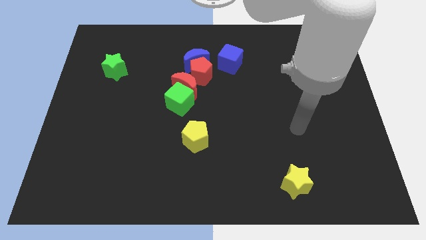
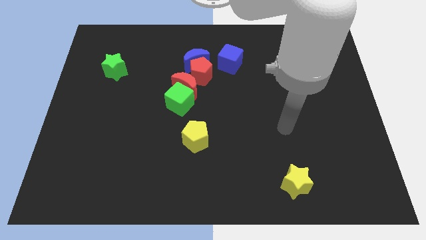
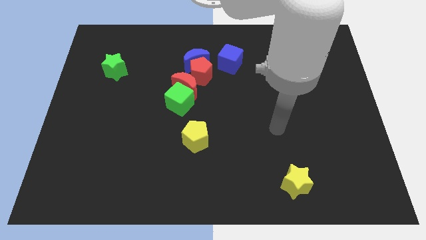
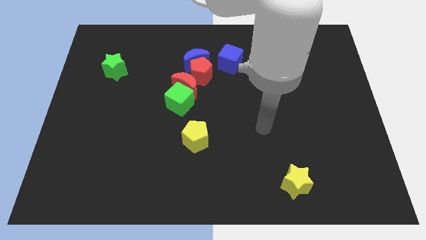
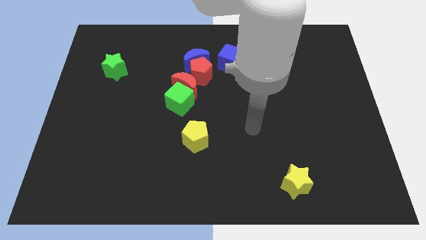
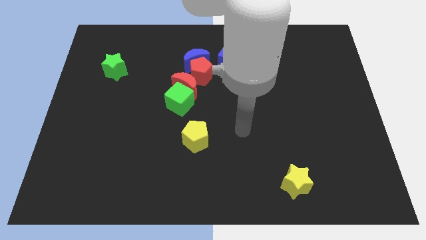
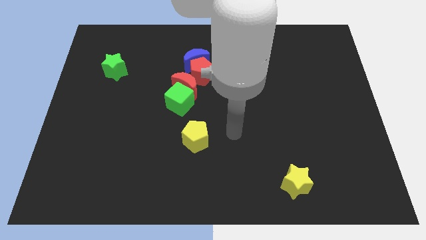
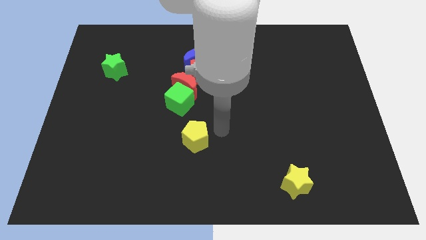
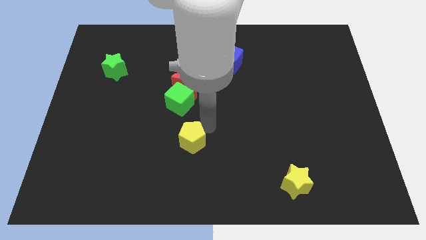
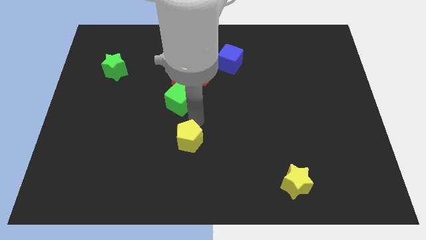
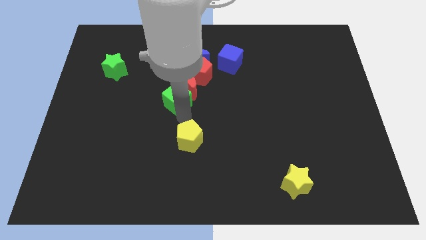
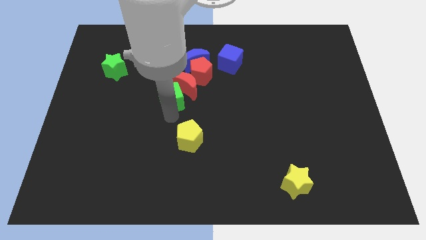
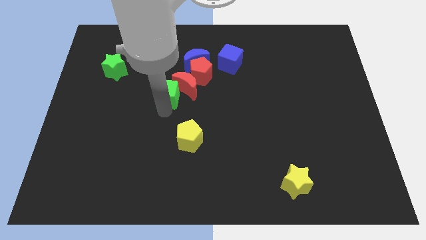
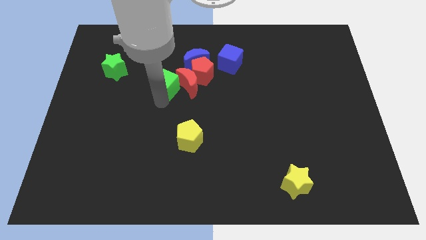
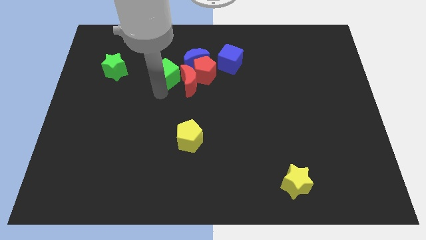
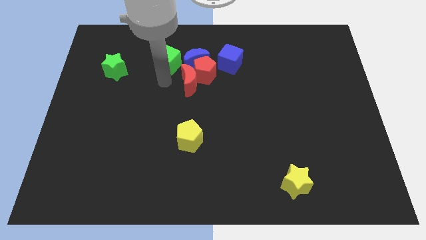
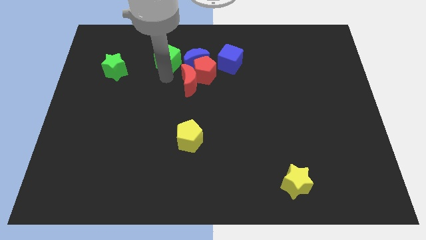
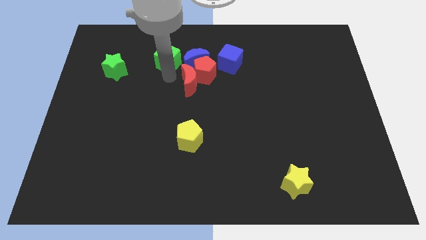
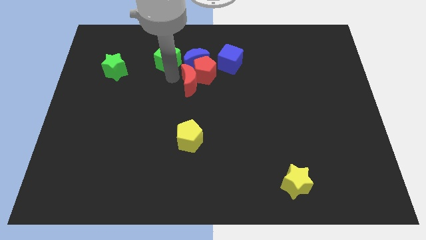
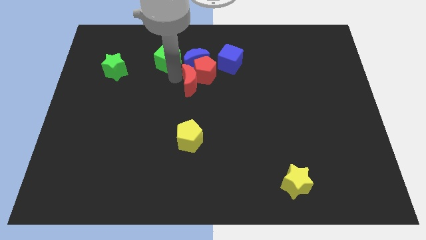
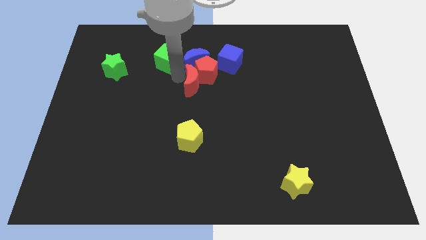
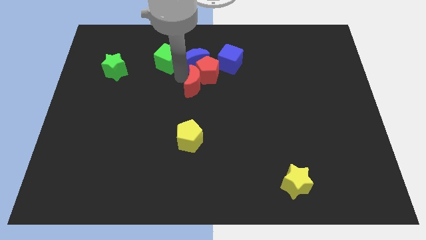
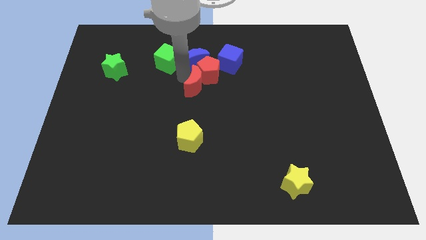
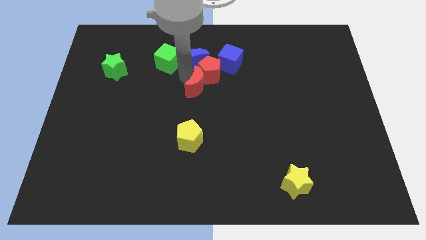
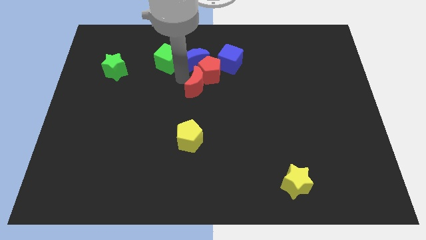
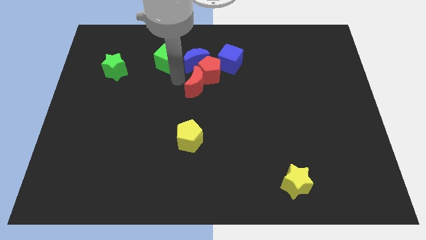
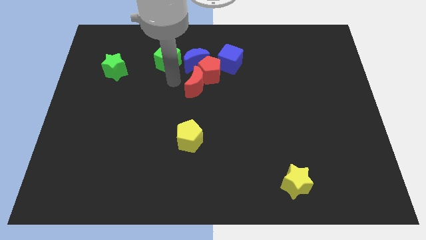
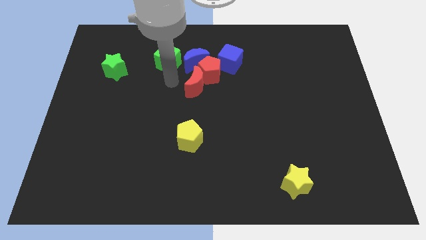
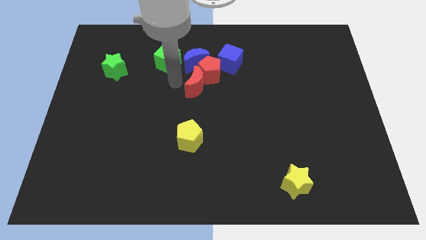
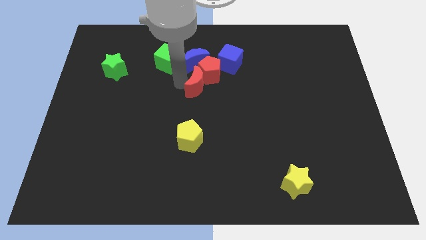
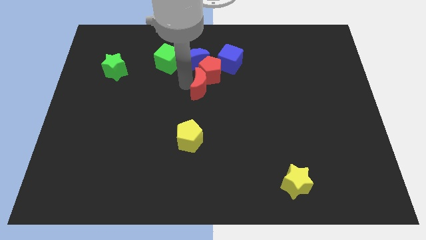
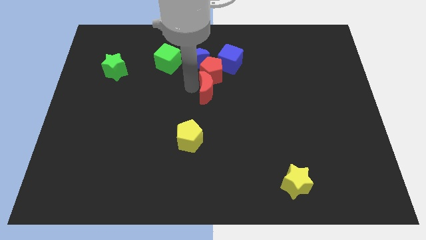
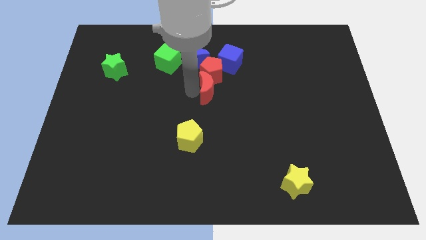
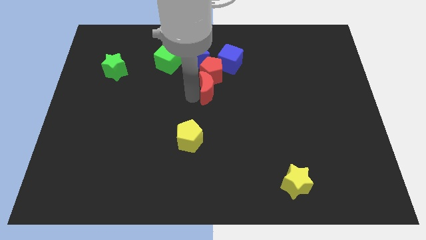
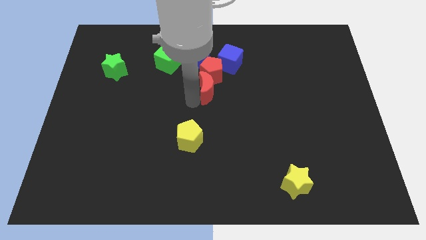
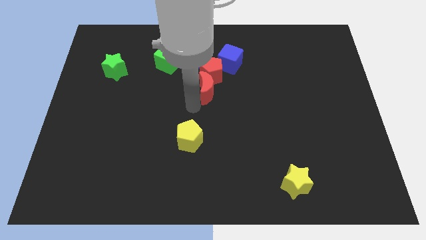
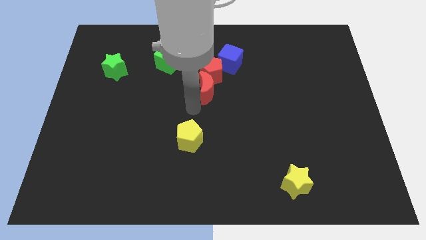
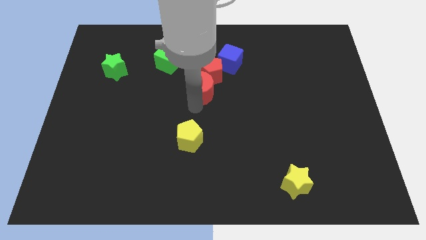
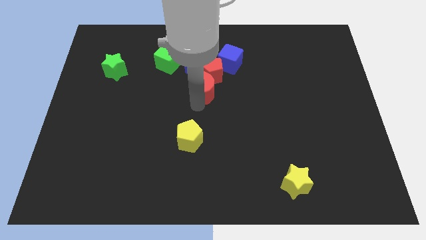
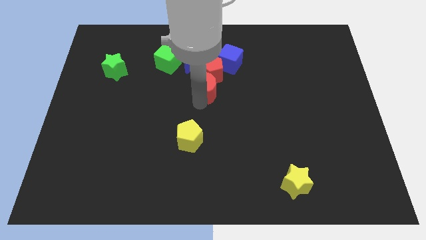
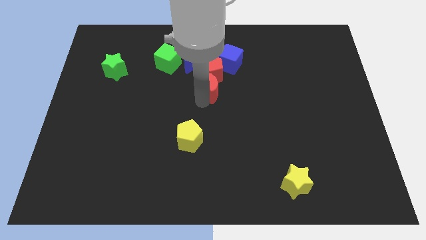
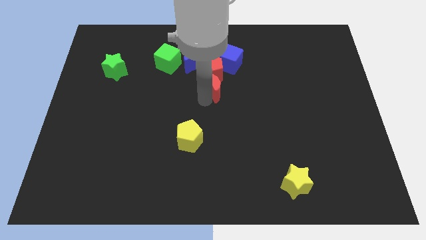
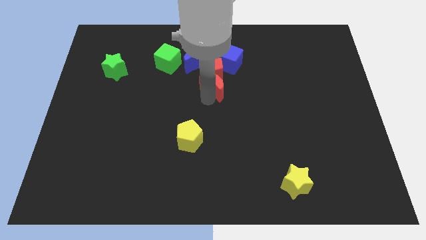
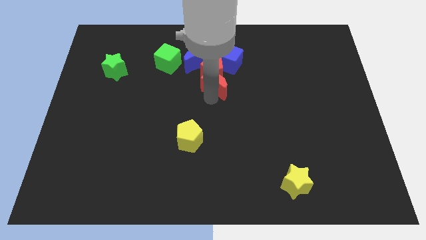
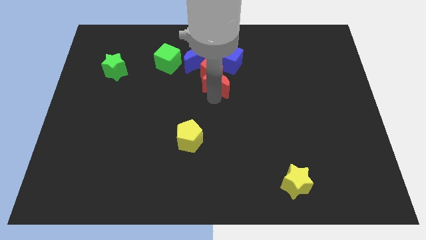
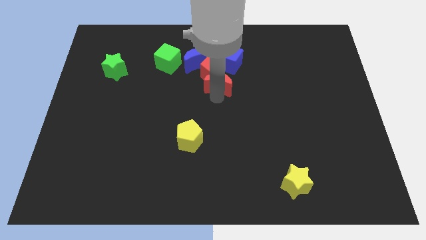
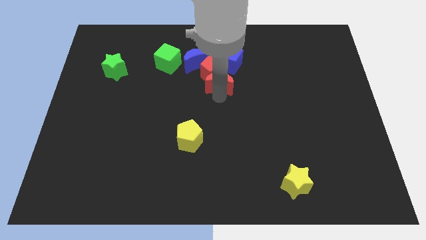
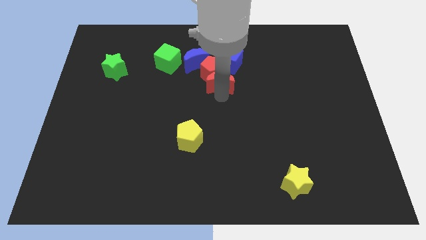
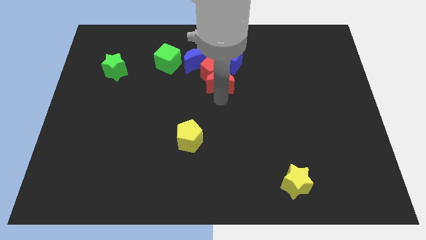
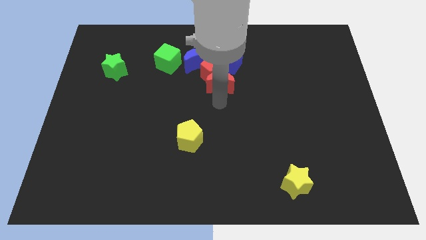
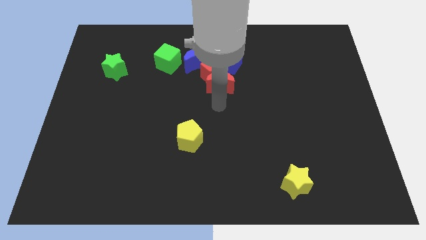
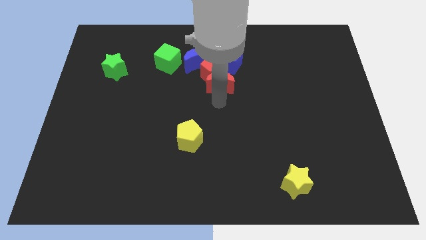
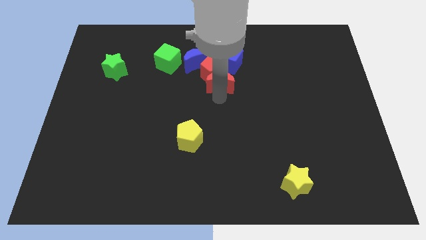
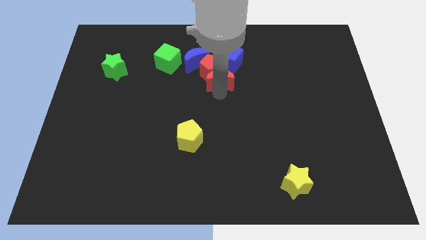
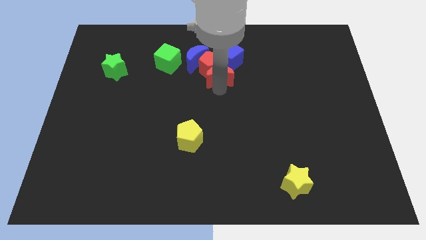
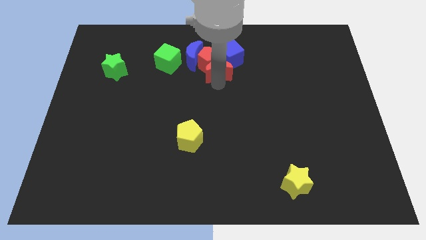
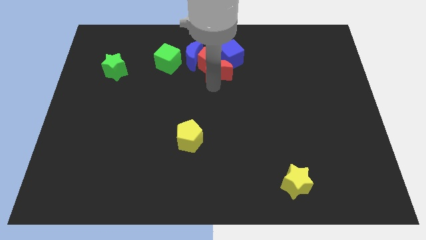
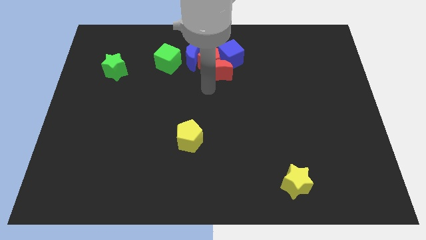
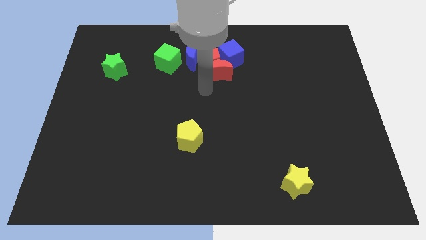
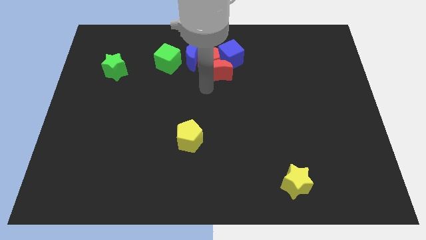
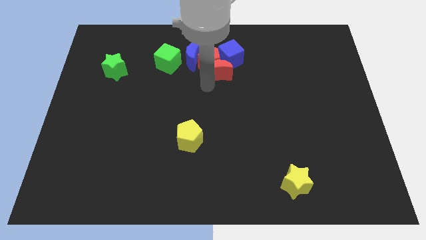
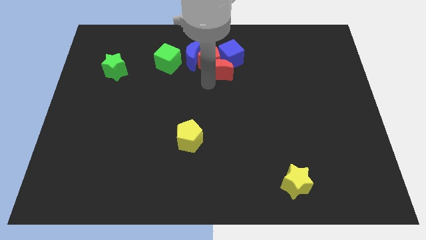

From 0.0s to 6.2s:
slide the red moon to the blue cube

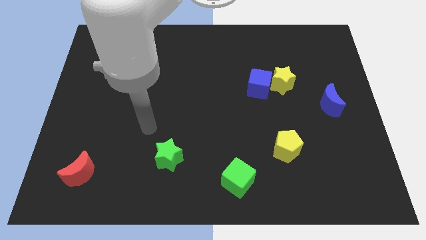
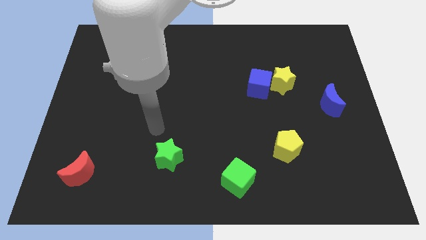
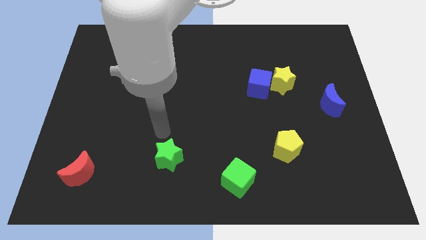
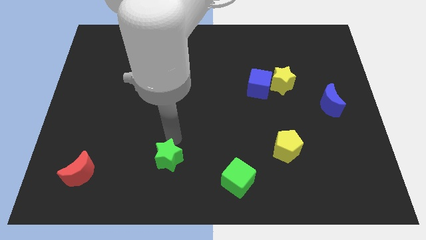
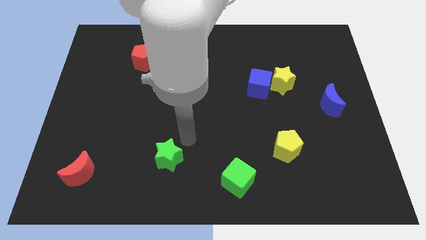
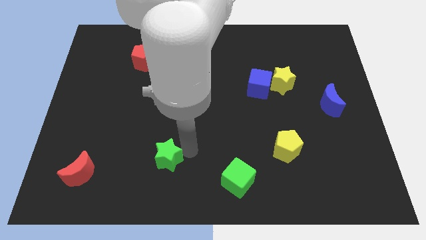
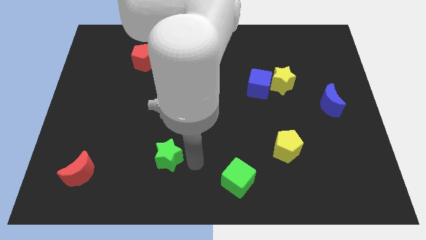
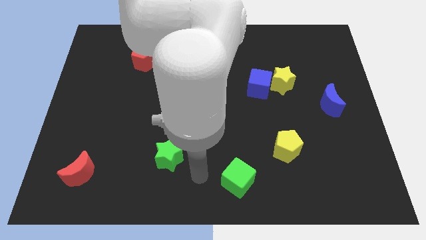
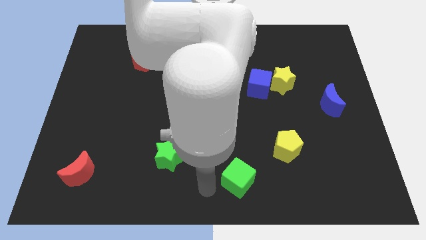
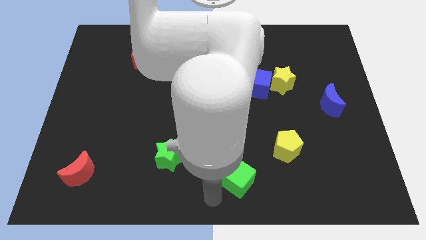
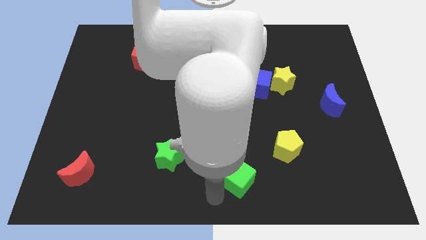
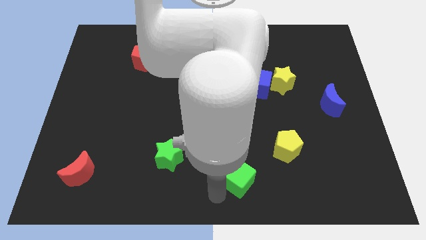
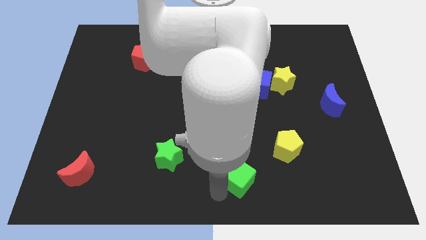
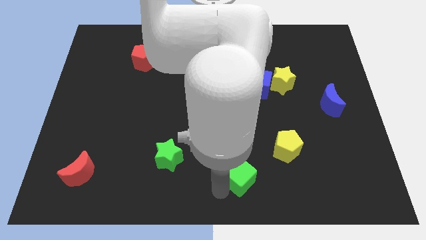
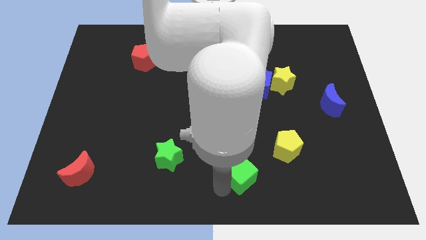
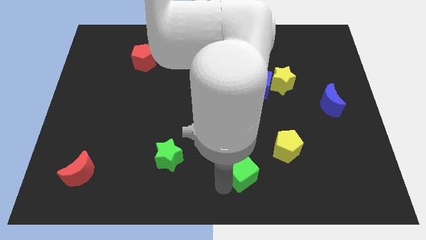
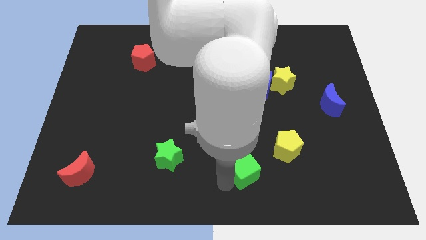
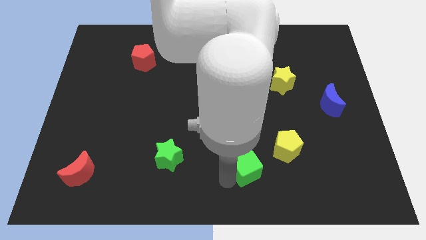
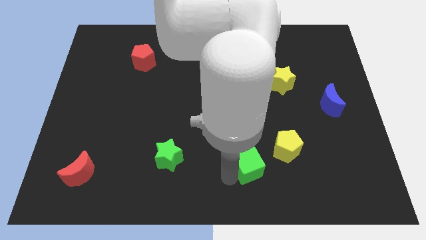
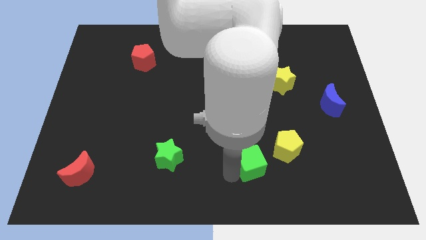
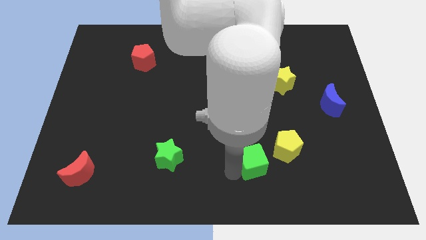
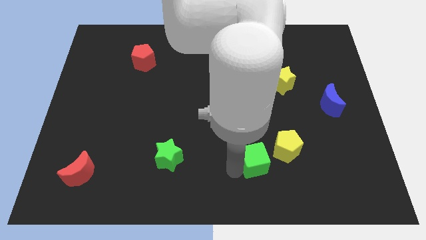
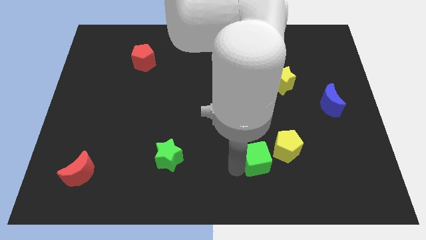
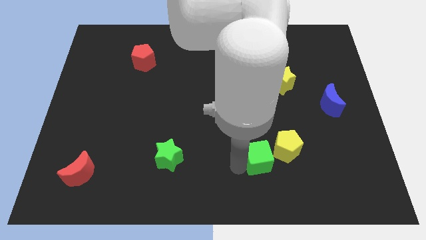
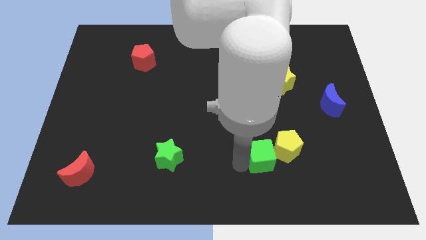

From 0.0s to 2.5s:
slide the green cube to the yellow pentagon
